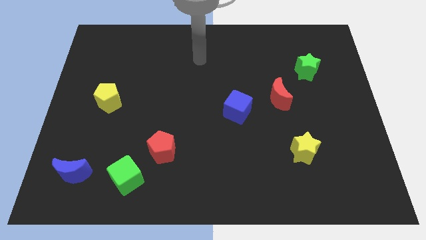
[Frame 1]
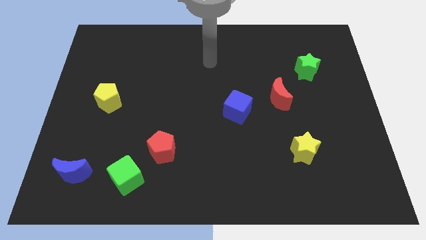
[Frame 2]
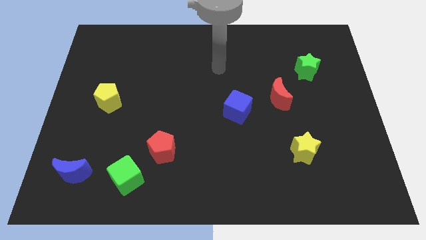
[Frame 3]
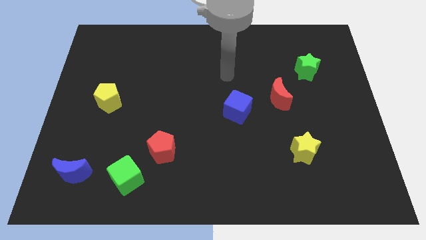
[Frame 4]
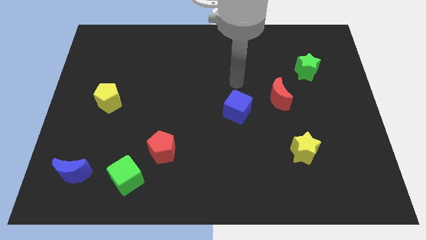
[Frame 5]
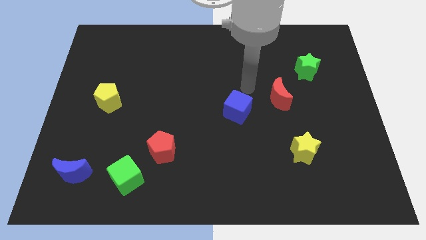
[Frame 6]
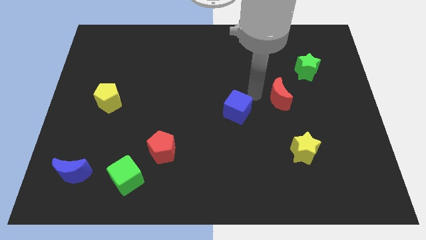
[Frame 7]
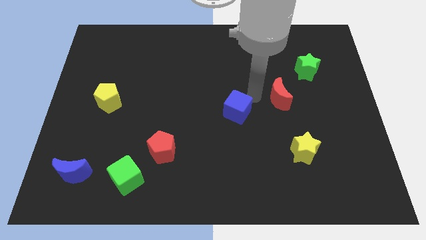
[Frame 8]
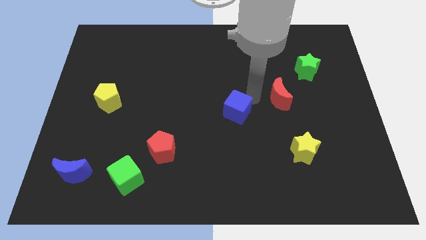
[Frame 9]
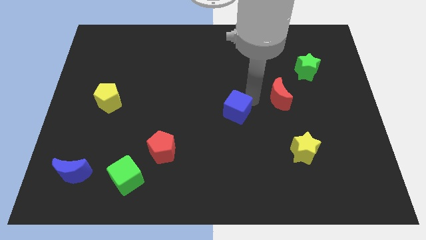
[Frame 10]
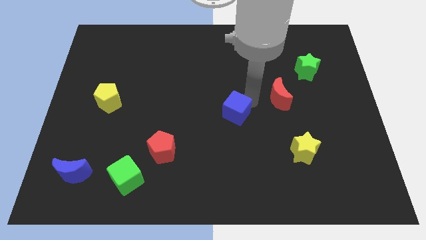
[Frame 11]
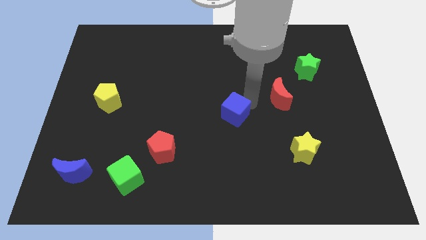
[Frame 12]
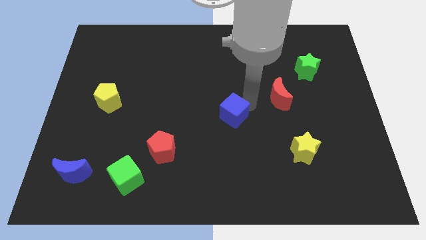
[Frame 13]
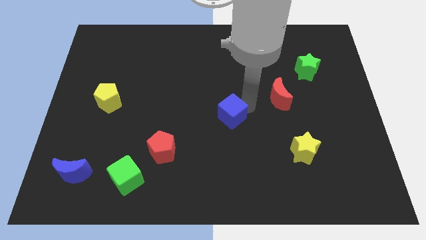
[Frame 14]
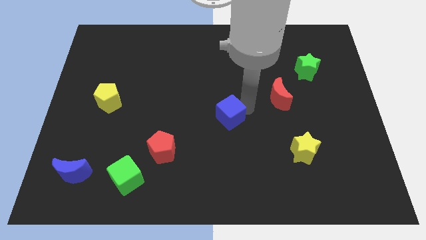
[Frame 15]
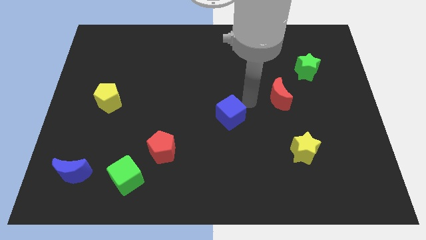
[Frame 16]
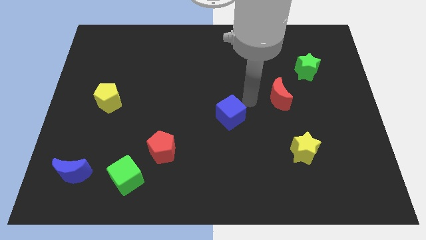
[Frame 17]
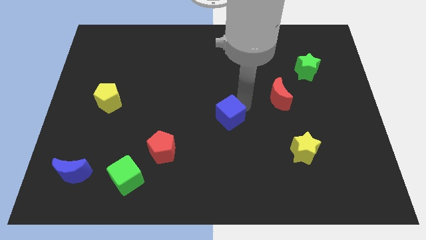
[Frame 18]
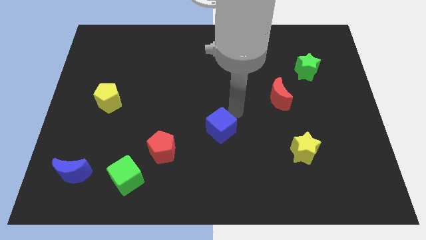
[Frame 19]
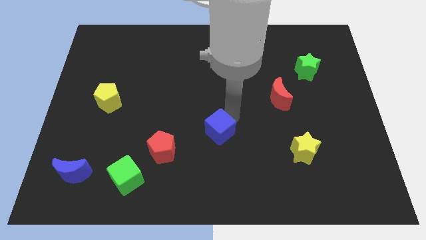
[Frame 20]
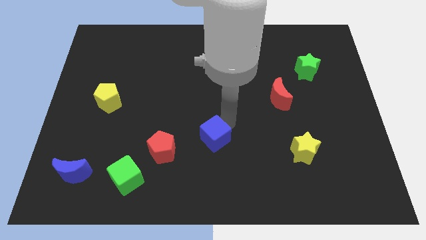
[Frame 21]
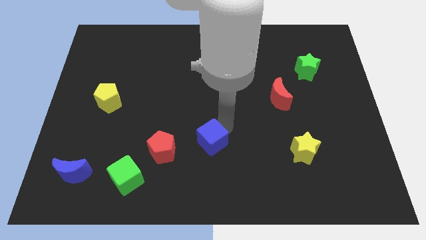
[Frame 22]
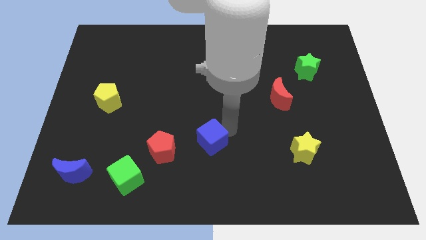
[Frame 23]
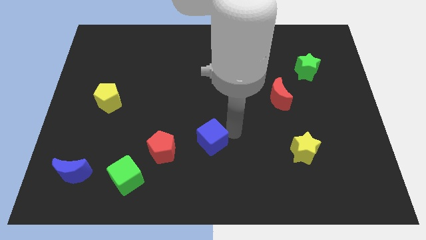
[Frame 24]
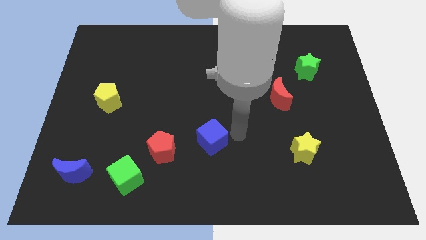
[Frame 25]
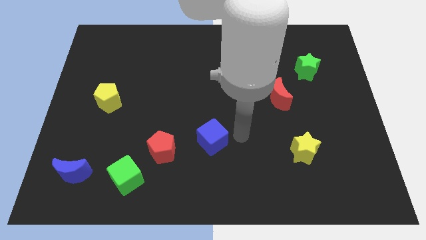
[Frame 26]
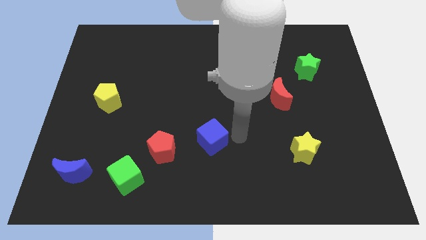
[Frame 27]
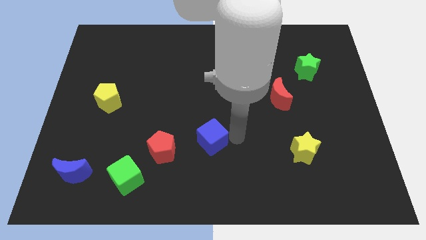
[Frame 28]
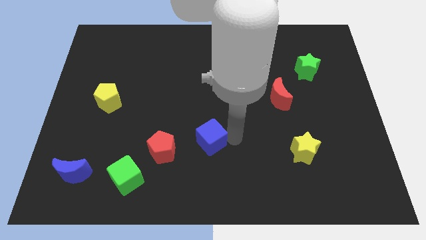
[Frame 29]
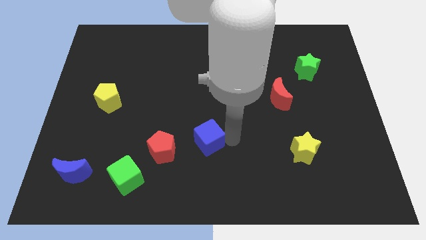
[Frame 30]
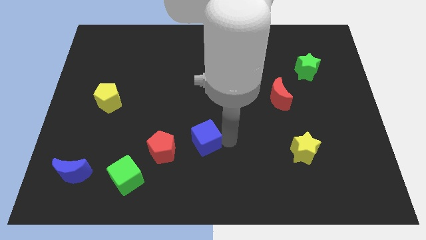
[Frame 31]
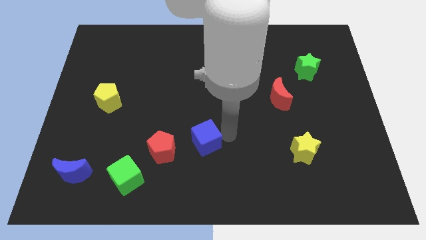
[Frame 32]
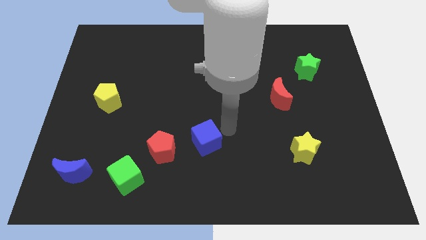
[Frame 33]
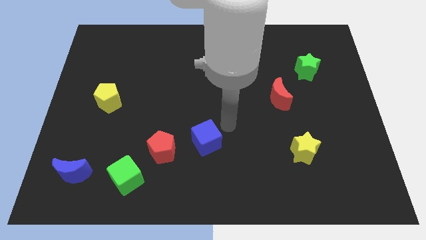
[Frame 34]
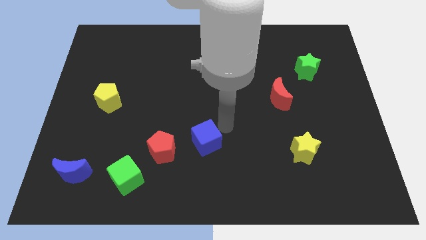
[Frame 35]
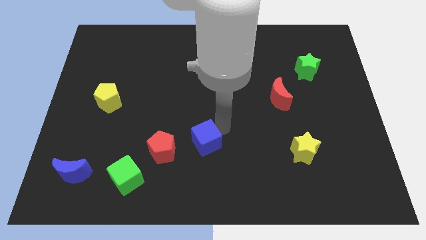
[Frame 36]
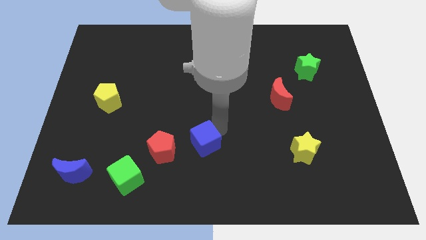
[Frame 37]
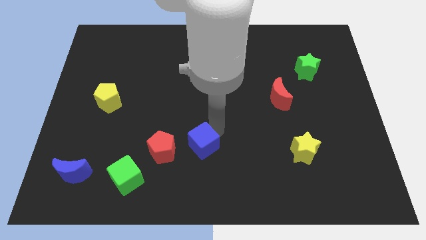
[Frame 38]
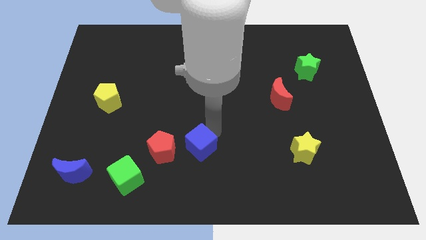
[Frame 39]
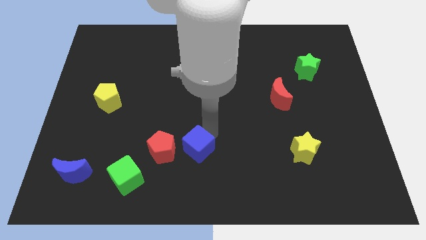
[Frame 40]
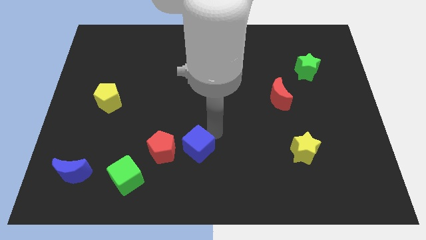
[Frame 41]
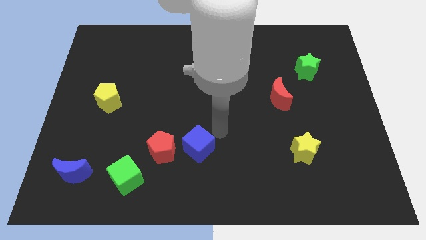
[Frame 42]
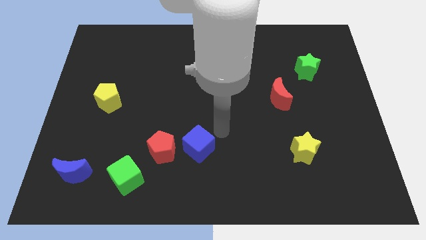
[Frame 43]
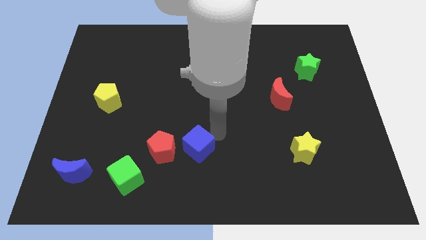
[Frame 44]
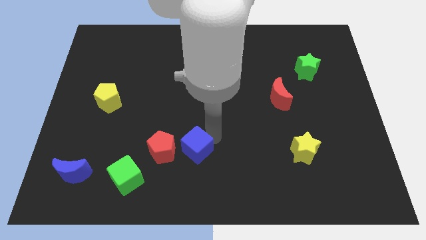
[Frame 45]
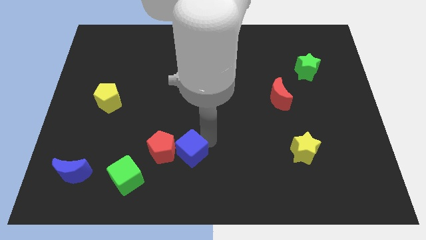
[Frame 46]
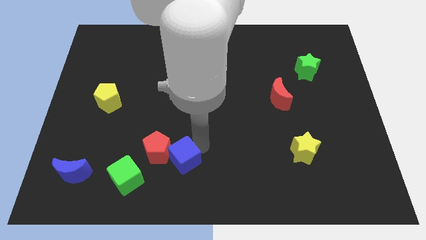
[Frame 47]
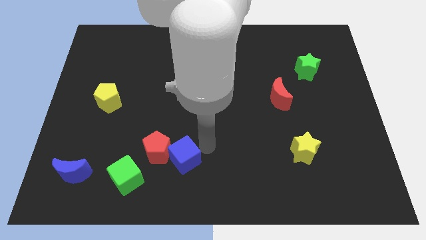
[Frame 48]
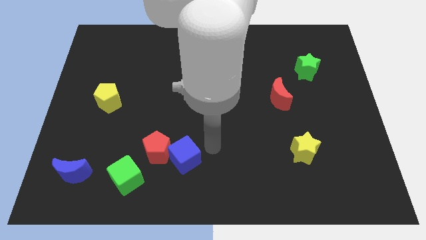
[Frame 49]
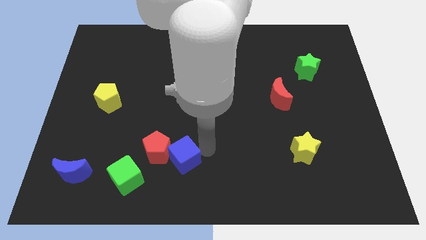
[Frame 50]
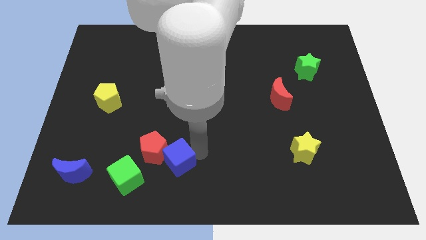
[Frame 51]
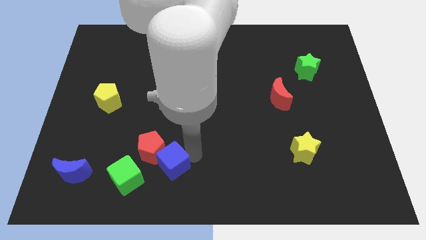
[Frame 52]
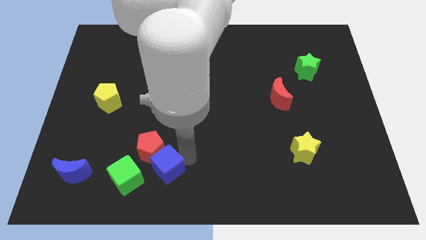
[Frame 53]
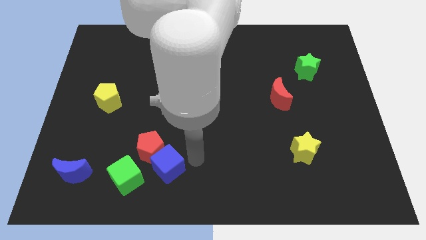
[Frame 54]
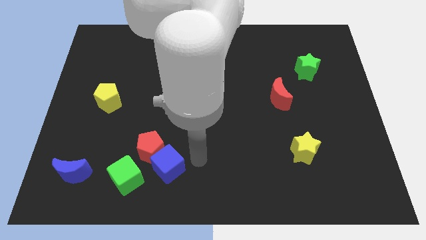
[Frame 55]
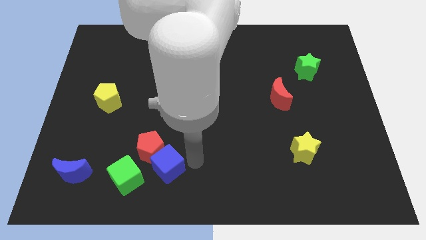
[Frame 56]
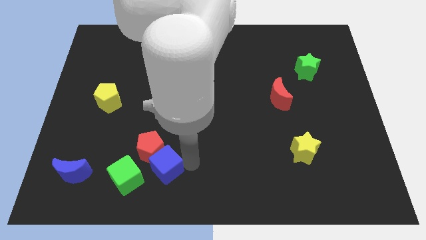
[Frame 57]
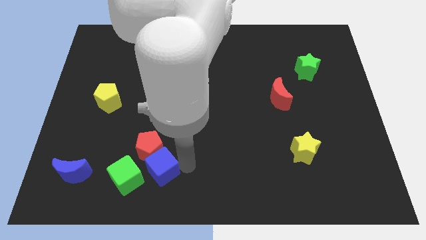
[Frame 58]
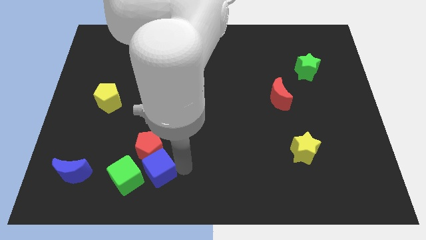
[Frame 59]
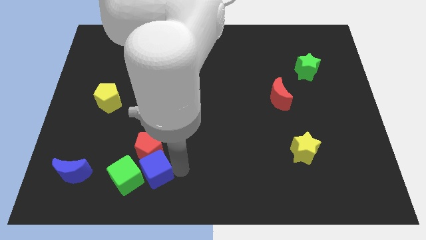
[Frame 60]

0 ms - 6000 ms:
slide the blue cube towards the green cube

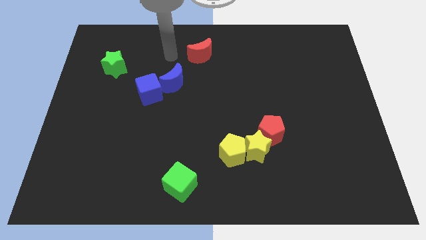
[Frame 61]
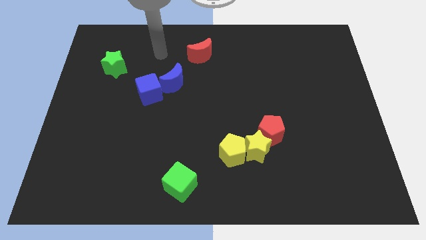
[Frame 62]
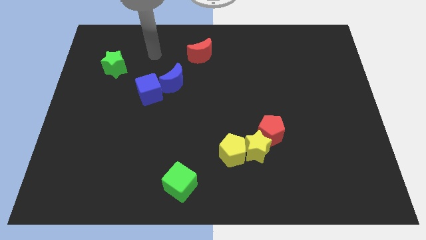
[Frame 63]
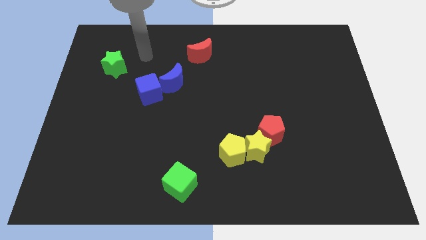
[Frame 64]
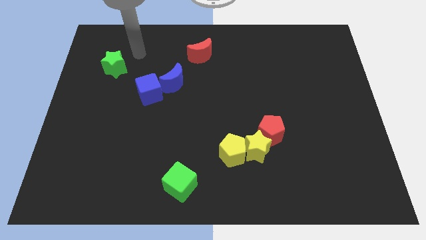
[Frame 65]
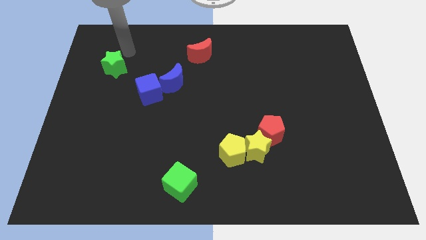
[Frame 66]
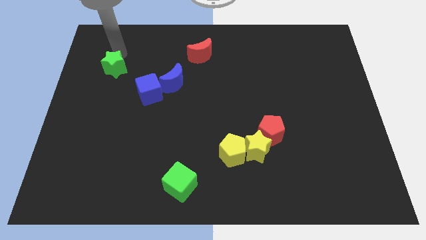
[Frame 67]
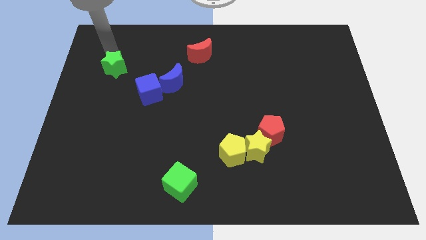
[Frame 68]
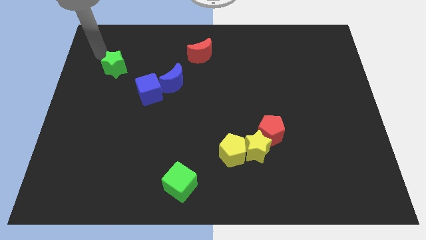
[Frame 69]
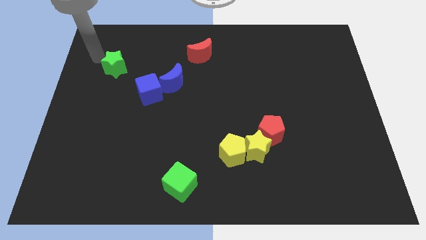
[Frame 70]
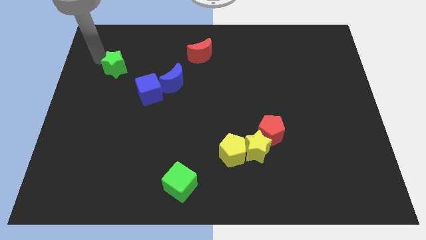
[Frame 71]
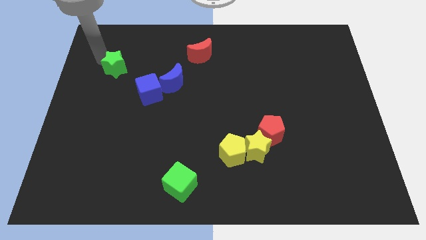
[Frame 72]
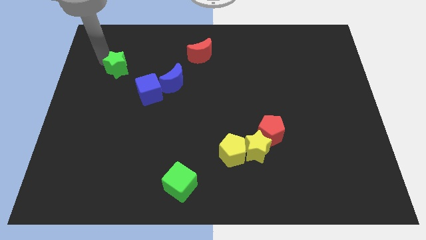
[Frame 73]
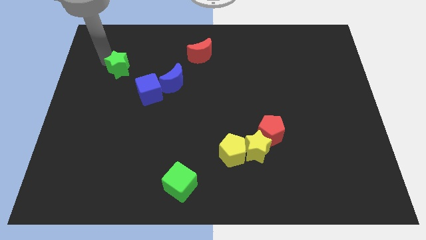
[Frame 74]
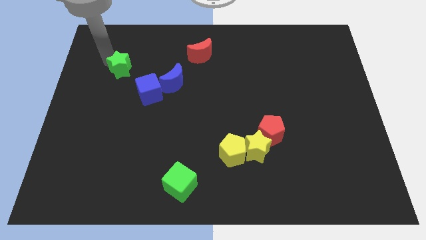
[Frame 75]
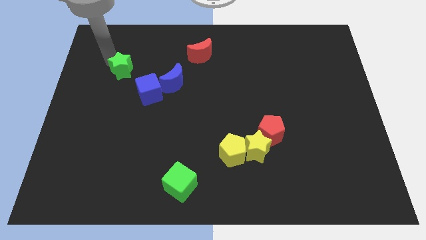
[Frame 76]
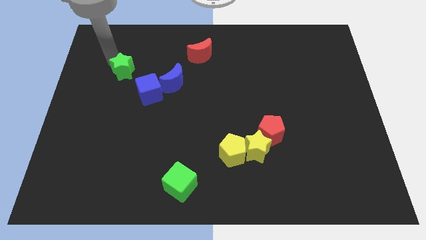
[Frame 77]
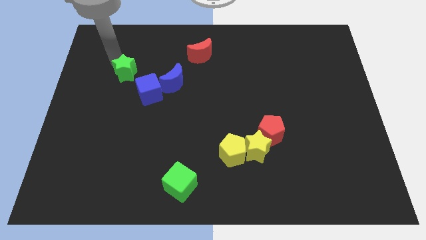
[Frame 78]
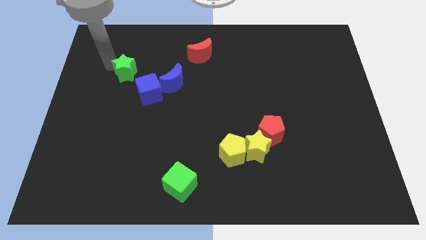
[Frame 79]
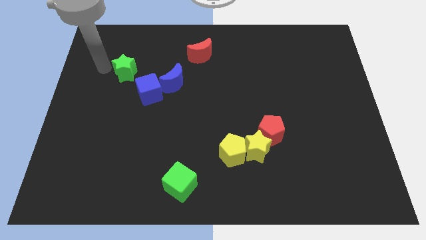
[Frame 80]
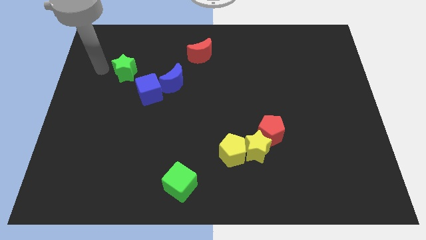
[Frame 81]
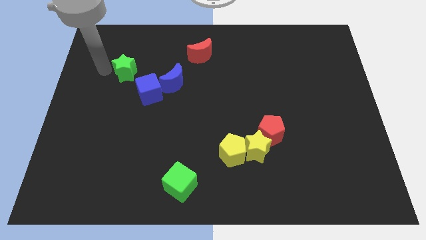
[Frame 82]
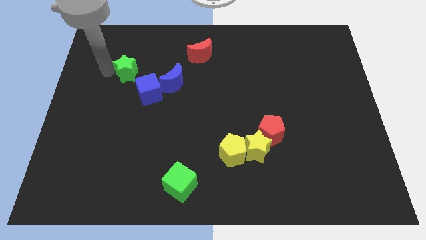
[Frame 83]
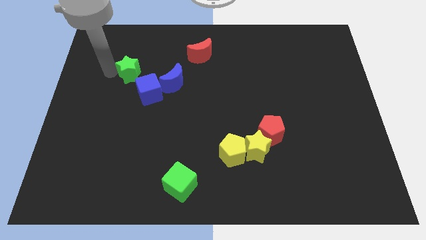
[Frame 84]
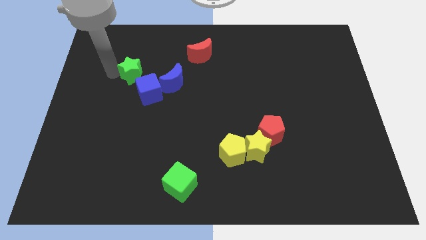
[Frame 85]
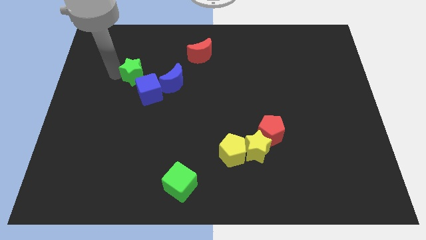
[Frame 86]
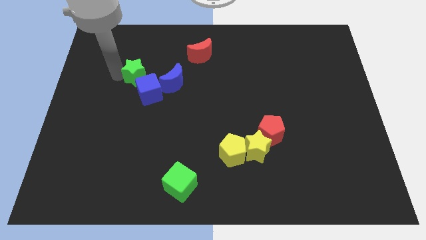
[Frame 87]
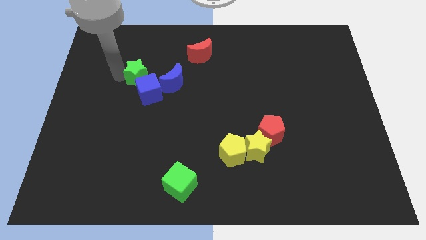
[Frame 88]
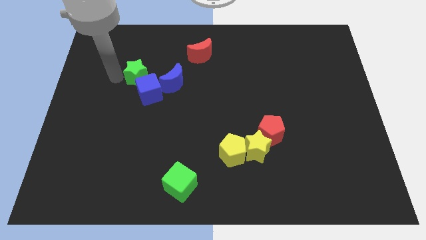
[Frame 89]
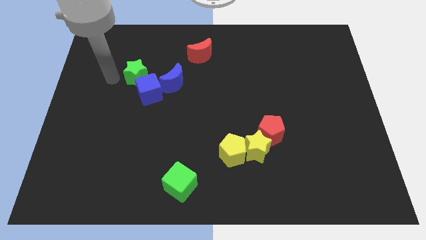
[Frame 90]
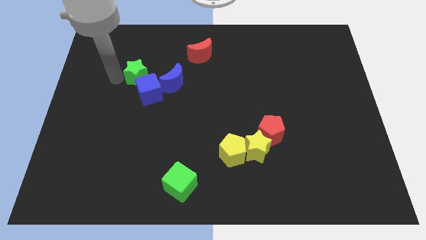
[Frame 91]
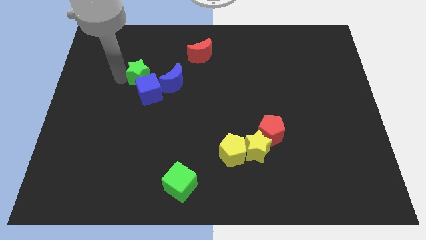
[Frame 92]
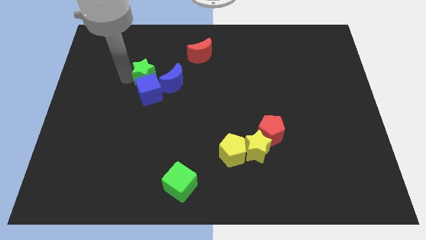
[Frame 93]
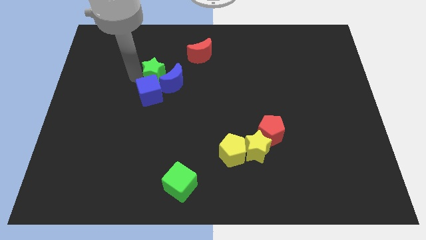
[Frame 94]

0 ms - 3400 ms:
slide the green star close to the blue moon
